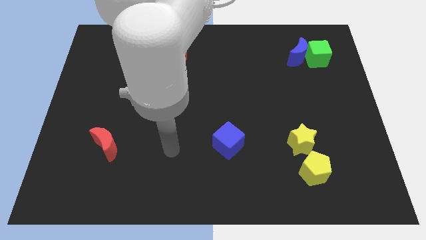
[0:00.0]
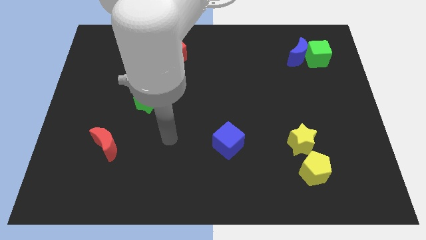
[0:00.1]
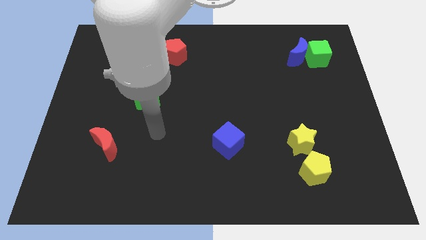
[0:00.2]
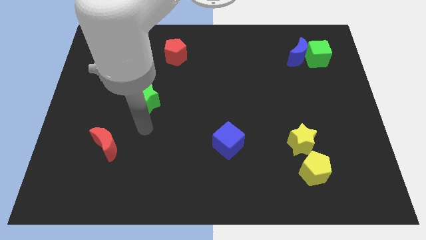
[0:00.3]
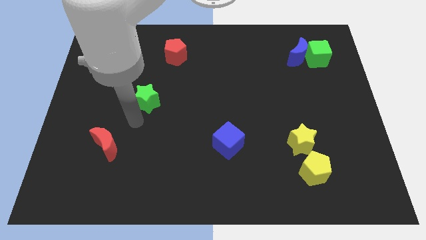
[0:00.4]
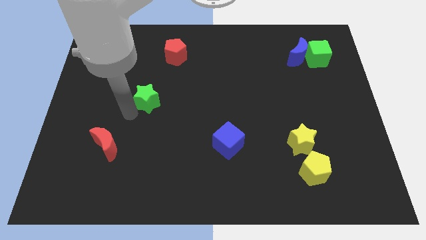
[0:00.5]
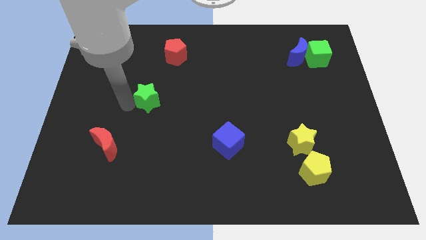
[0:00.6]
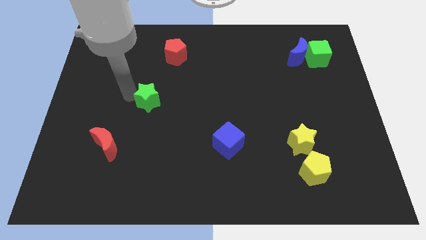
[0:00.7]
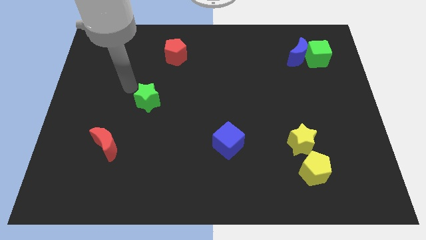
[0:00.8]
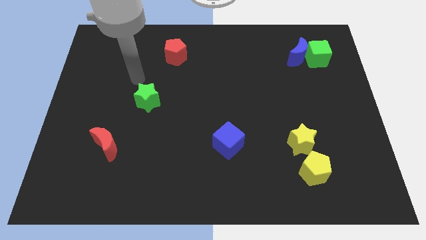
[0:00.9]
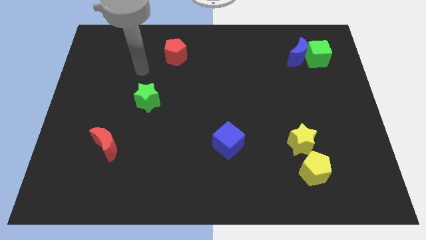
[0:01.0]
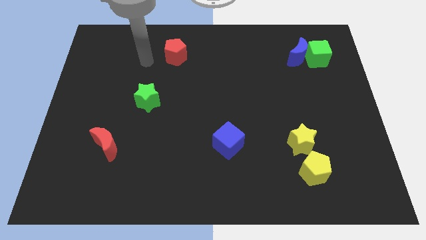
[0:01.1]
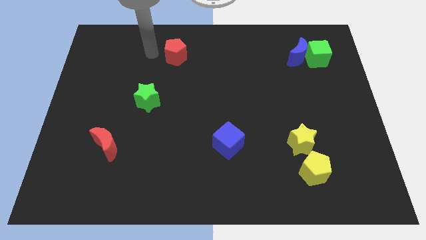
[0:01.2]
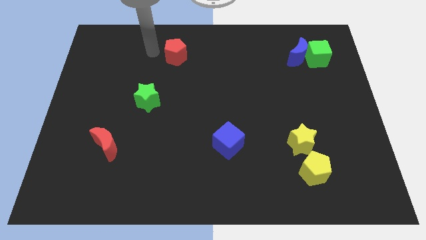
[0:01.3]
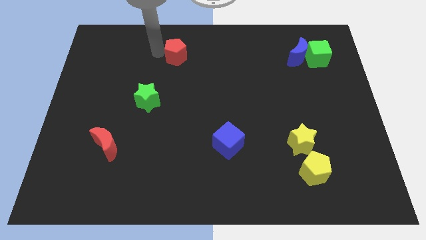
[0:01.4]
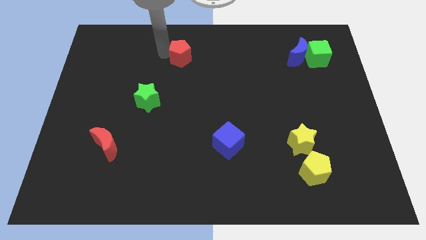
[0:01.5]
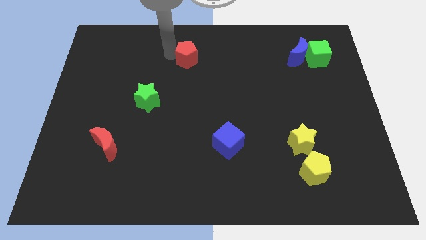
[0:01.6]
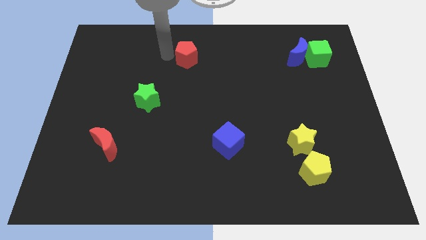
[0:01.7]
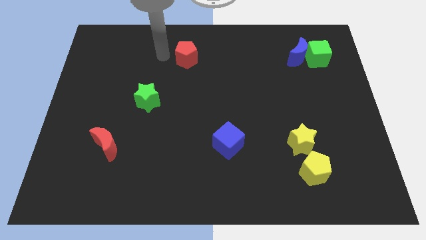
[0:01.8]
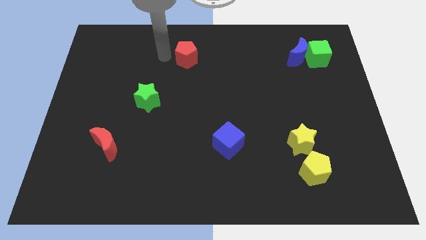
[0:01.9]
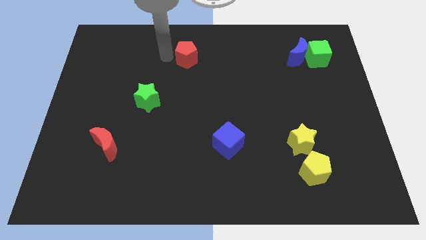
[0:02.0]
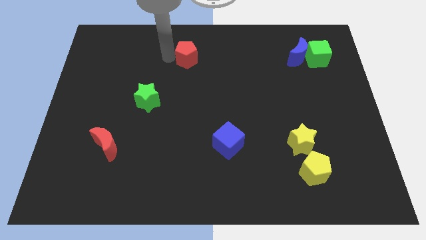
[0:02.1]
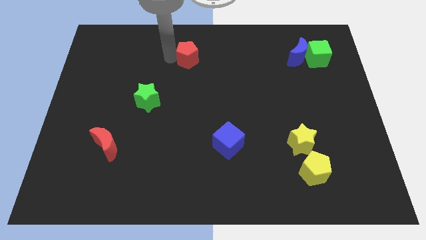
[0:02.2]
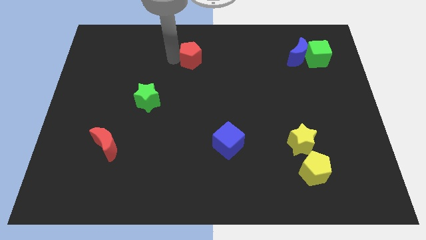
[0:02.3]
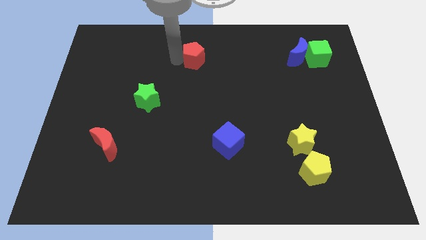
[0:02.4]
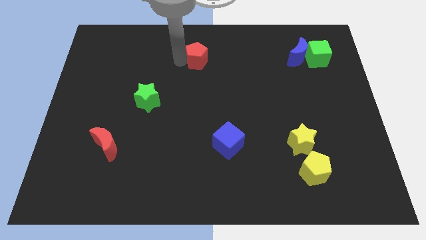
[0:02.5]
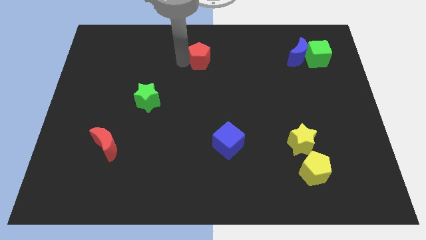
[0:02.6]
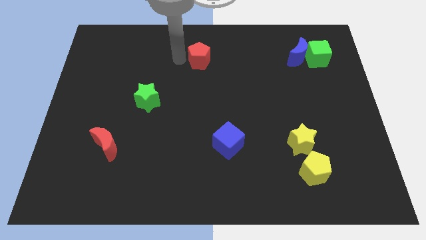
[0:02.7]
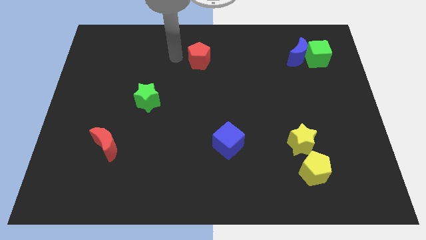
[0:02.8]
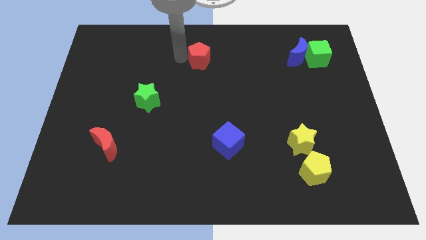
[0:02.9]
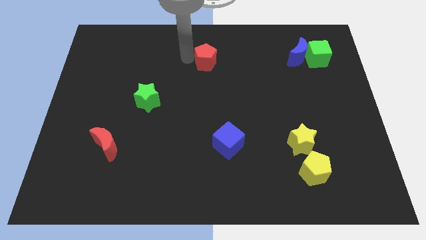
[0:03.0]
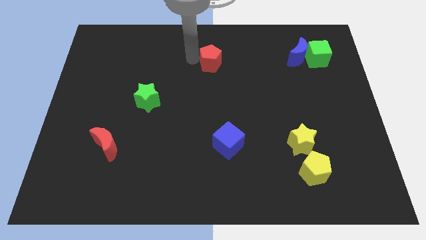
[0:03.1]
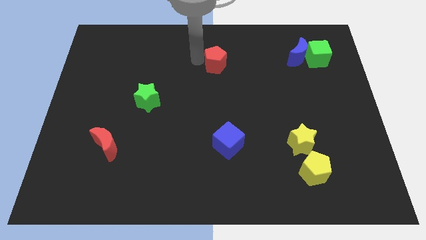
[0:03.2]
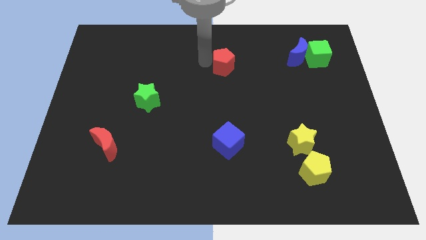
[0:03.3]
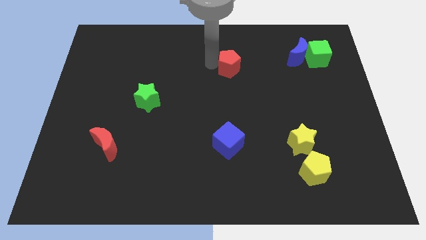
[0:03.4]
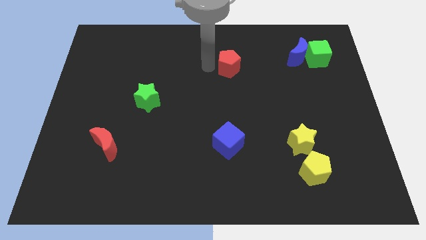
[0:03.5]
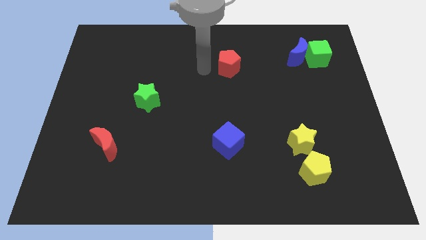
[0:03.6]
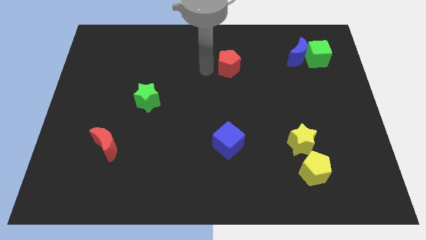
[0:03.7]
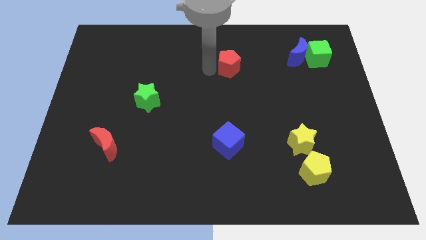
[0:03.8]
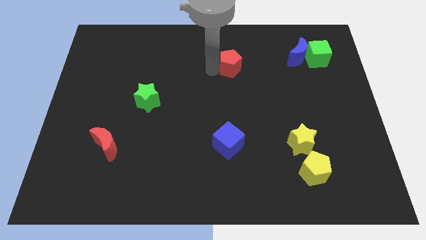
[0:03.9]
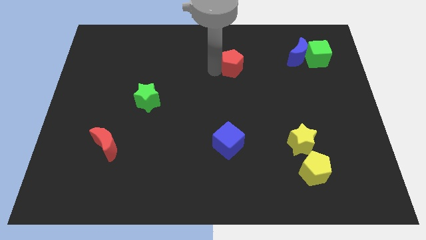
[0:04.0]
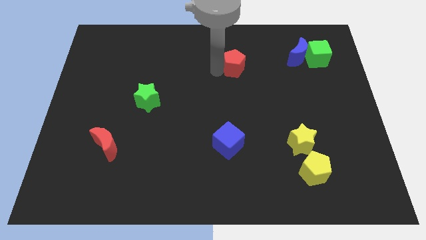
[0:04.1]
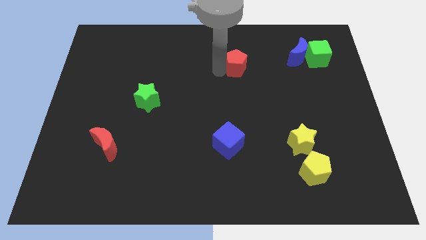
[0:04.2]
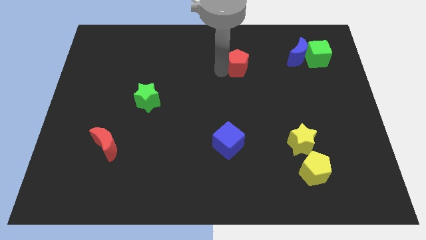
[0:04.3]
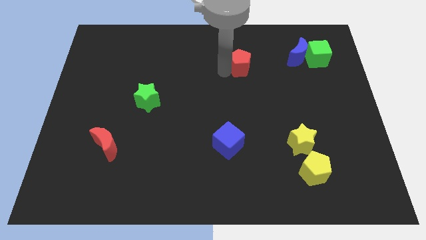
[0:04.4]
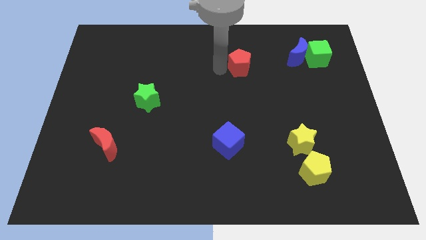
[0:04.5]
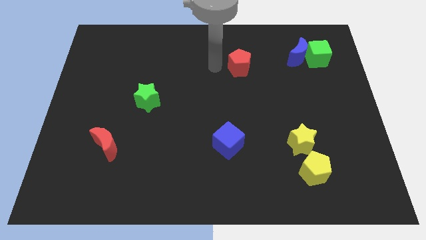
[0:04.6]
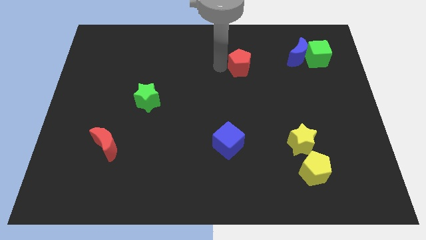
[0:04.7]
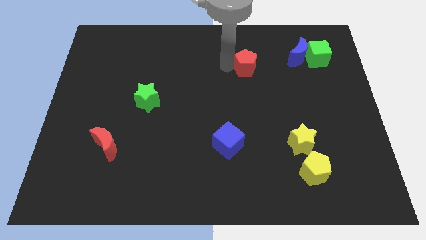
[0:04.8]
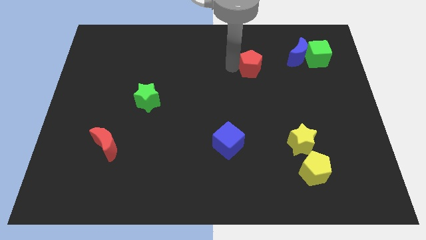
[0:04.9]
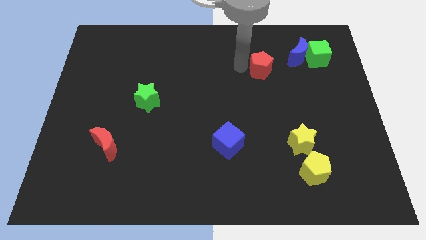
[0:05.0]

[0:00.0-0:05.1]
put the red pentagon diagonally down and to the left of the blue moon

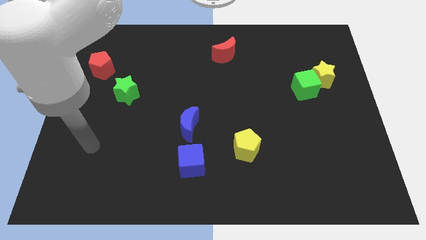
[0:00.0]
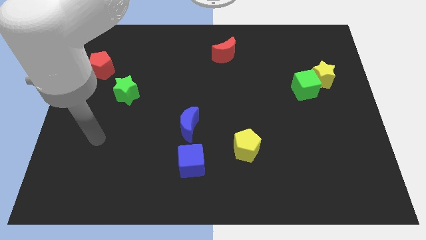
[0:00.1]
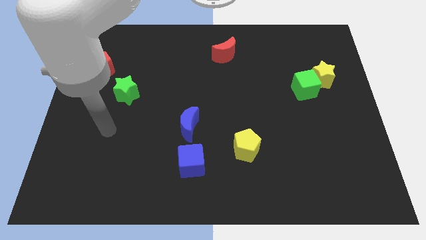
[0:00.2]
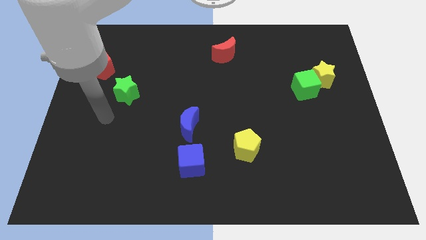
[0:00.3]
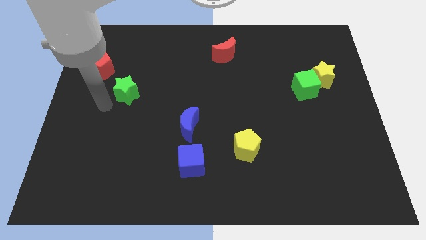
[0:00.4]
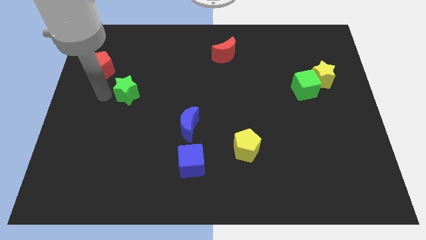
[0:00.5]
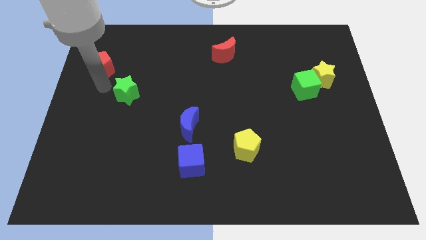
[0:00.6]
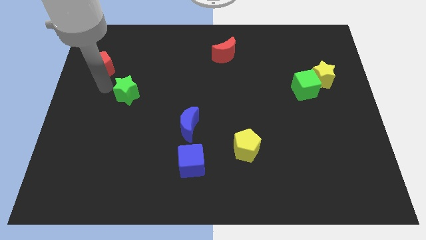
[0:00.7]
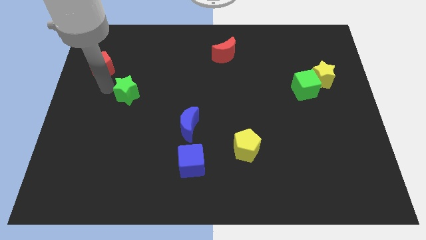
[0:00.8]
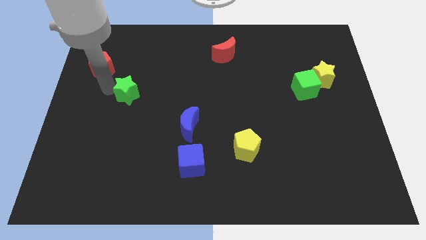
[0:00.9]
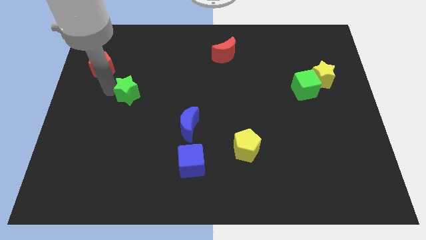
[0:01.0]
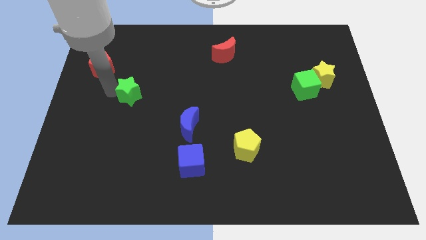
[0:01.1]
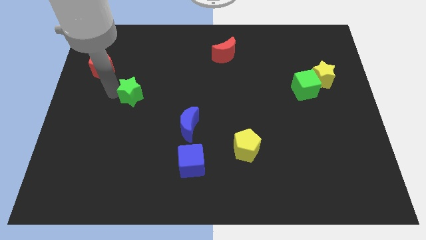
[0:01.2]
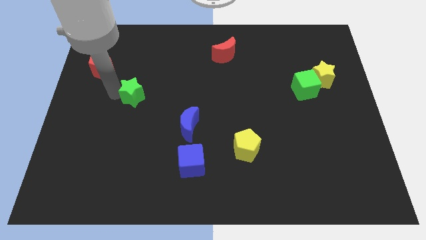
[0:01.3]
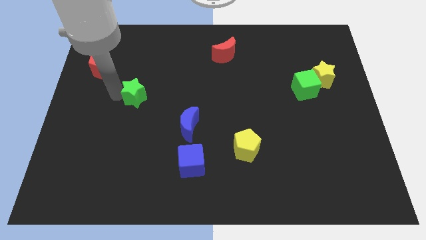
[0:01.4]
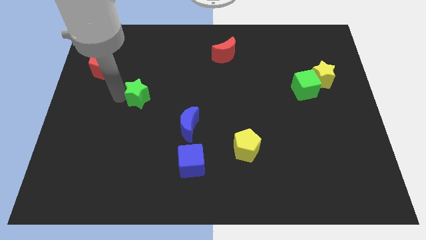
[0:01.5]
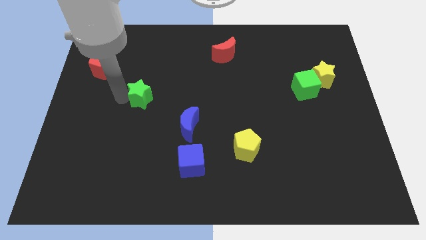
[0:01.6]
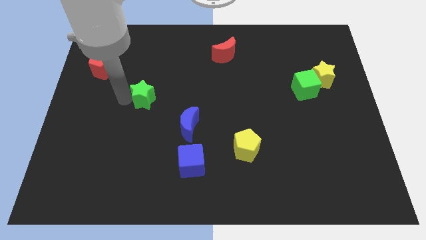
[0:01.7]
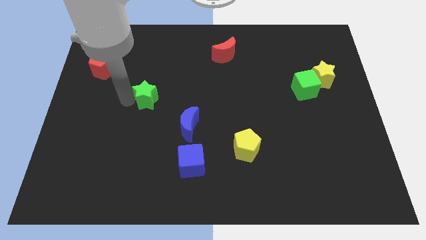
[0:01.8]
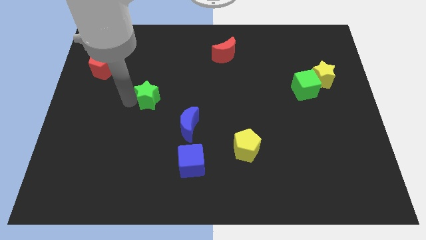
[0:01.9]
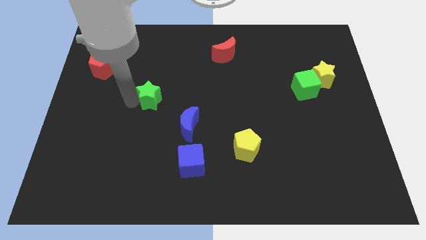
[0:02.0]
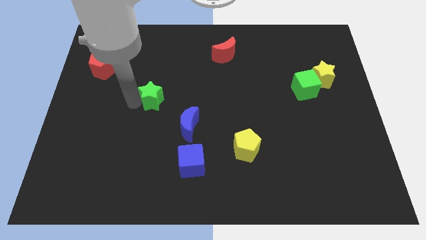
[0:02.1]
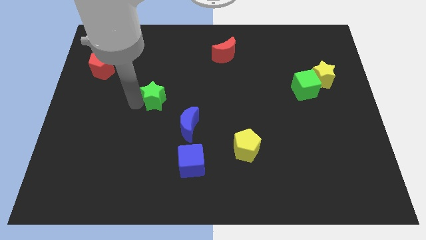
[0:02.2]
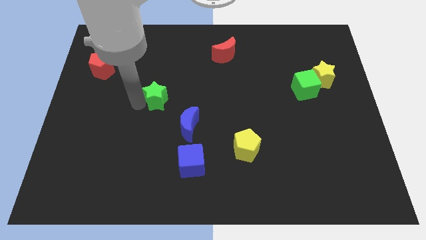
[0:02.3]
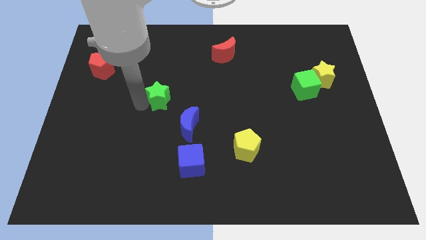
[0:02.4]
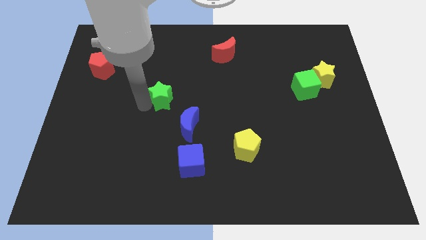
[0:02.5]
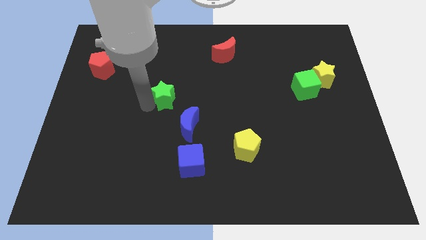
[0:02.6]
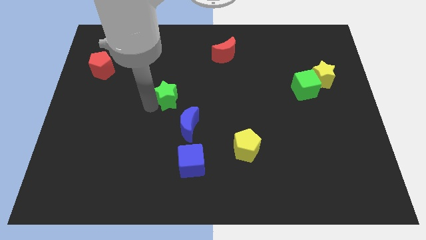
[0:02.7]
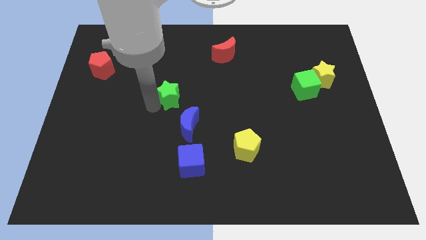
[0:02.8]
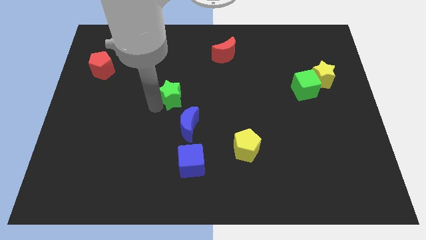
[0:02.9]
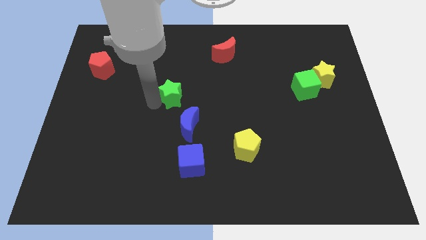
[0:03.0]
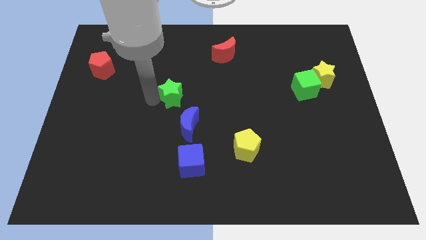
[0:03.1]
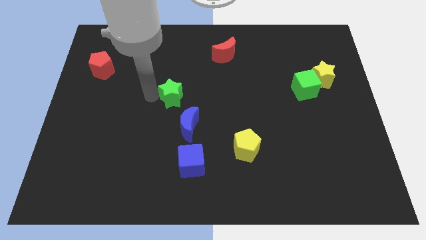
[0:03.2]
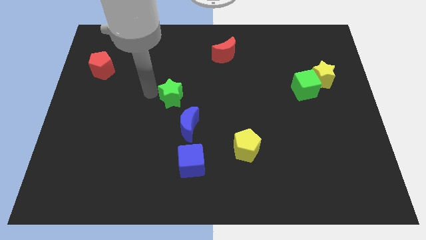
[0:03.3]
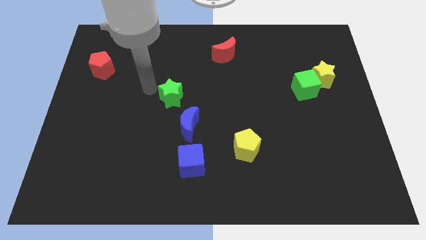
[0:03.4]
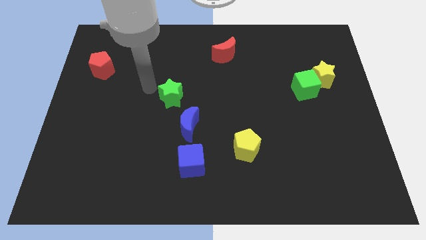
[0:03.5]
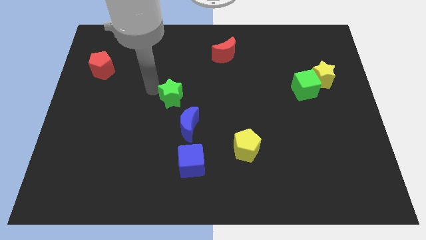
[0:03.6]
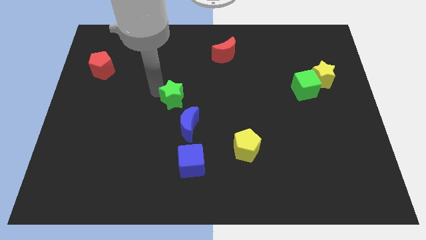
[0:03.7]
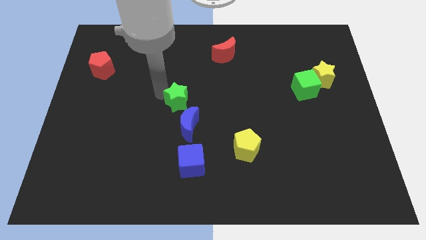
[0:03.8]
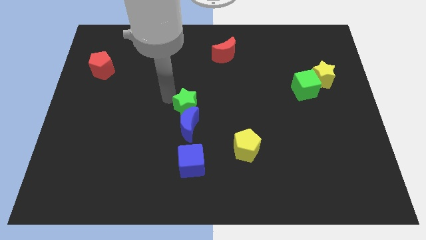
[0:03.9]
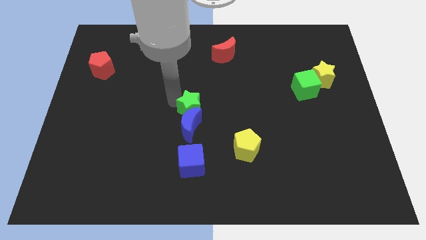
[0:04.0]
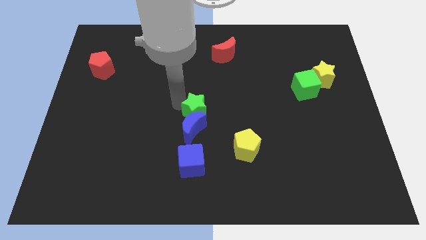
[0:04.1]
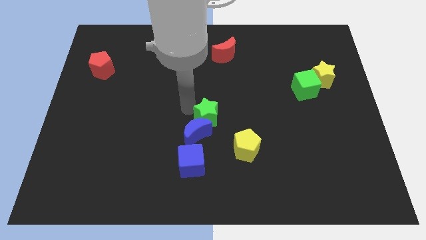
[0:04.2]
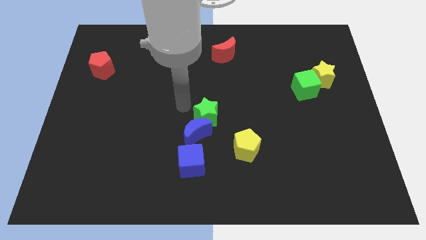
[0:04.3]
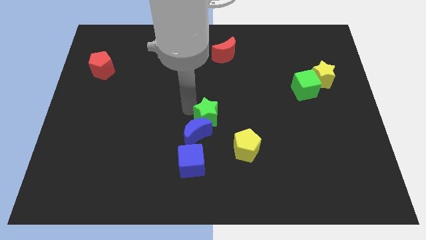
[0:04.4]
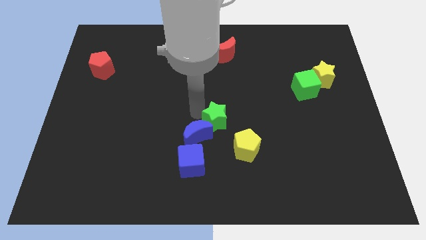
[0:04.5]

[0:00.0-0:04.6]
push the green star right of the blue moon
